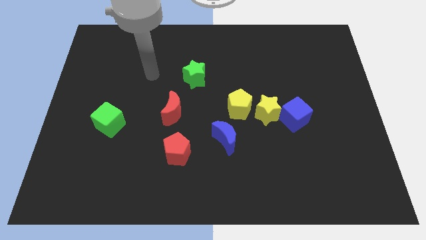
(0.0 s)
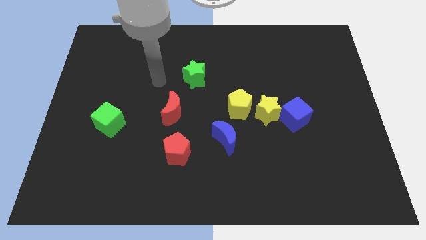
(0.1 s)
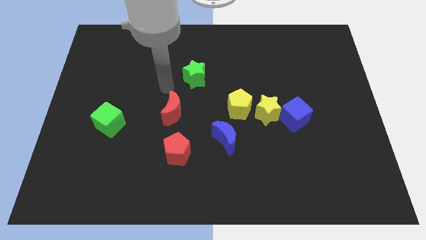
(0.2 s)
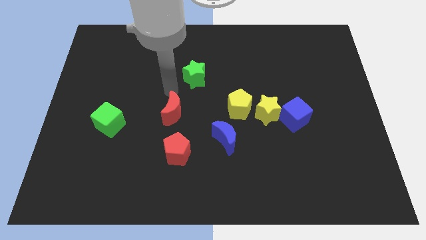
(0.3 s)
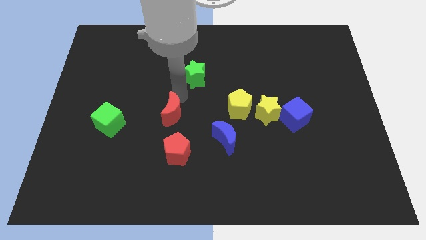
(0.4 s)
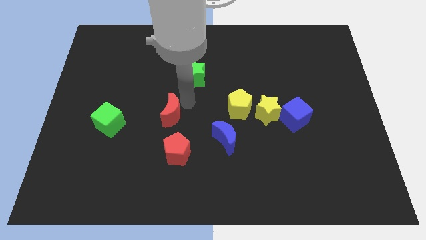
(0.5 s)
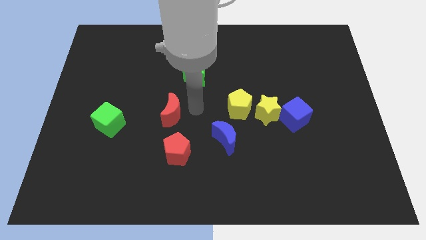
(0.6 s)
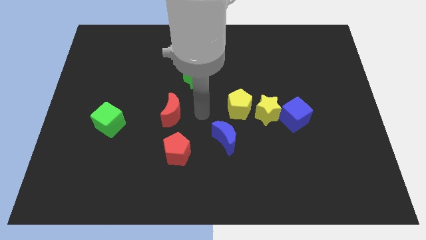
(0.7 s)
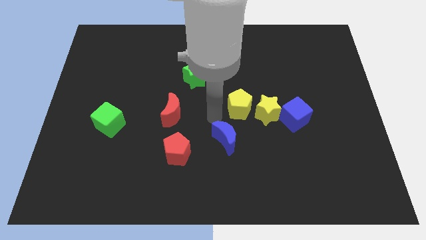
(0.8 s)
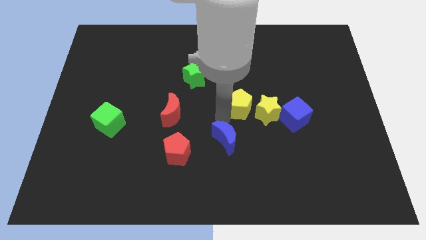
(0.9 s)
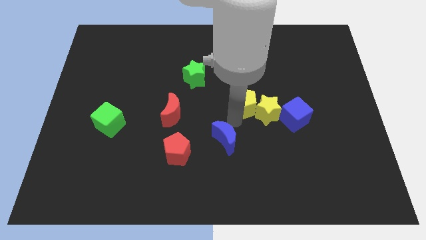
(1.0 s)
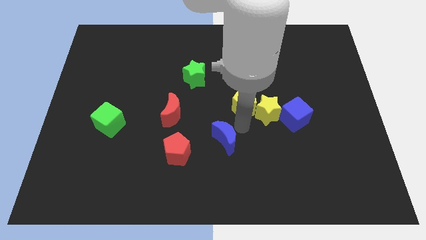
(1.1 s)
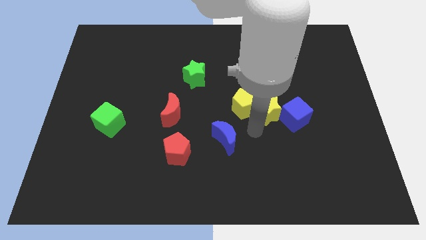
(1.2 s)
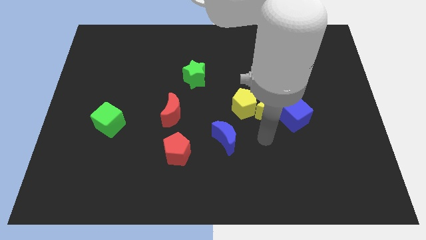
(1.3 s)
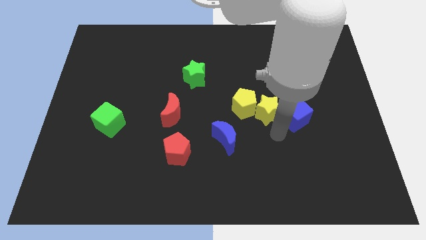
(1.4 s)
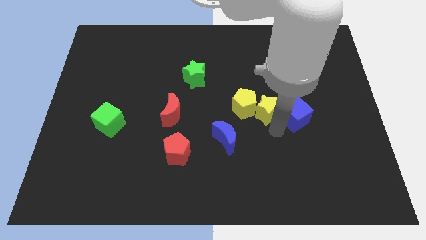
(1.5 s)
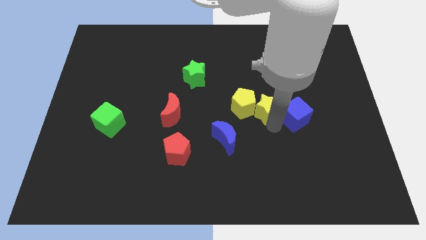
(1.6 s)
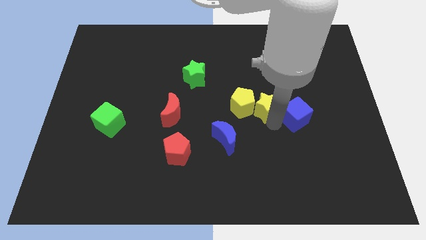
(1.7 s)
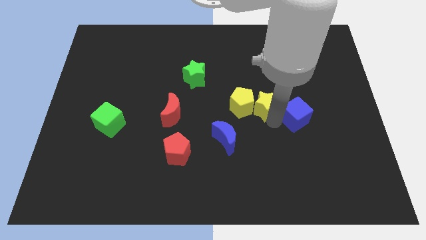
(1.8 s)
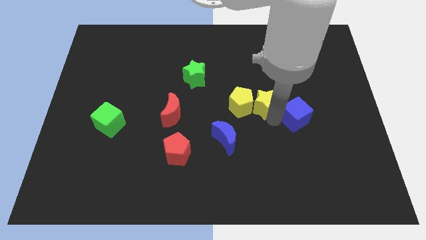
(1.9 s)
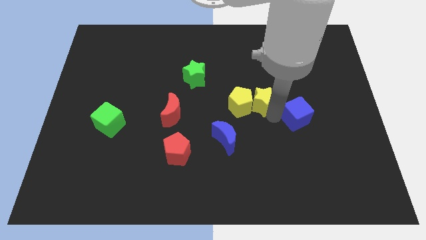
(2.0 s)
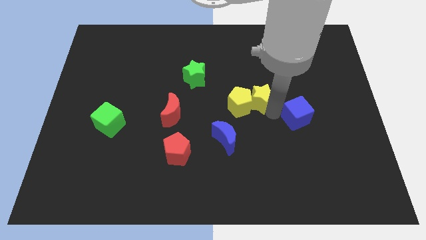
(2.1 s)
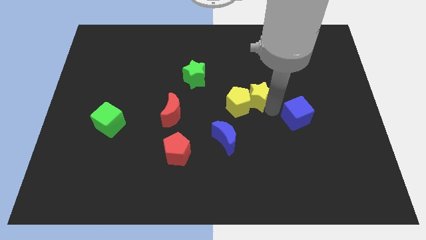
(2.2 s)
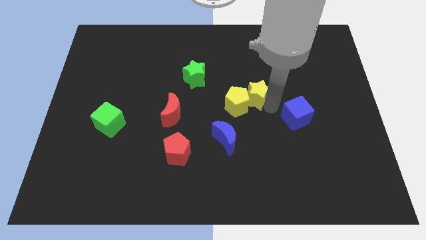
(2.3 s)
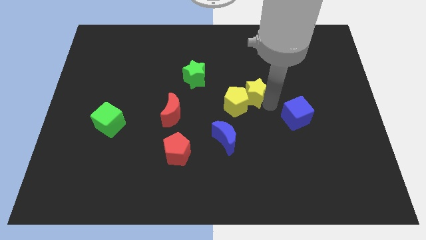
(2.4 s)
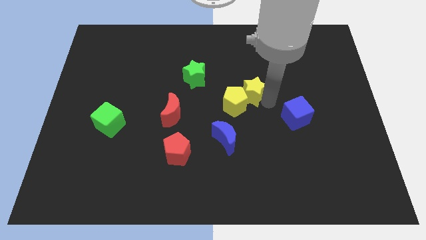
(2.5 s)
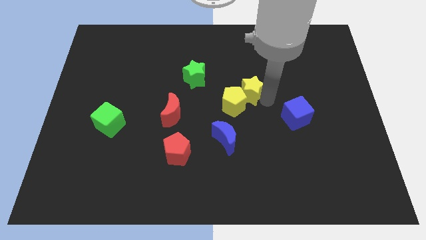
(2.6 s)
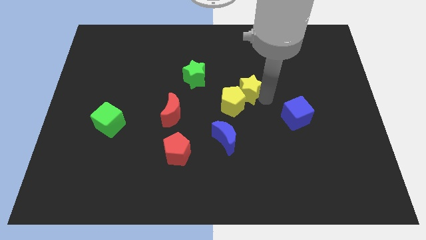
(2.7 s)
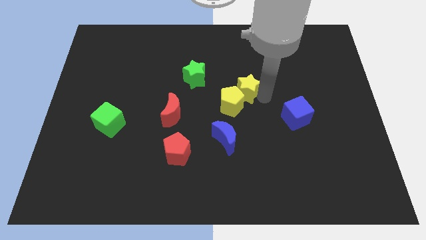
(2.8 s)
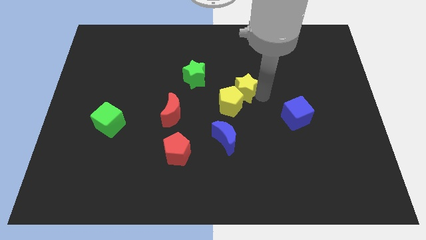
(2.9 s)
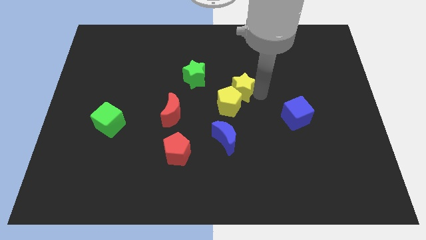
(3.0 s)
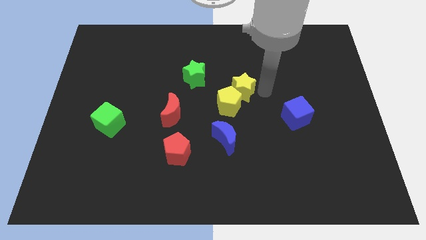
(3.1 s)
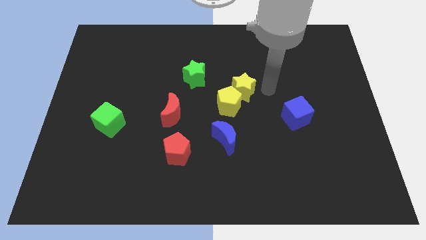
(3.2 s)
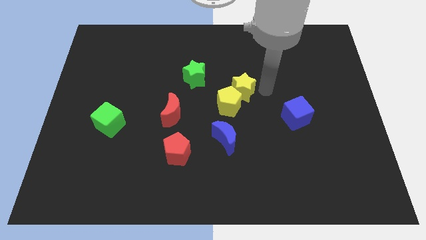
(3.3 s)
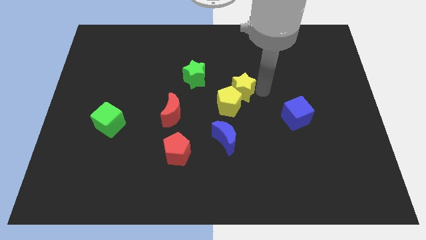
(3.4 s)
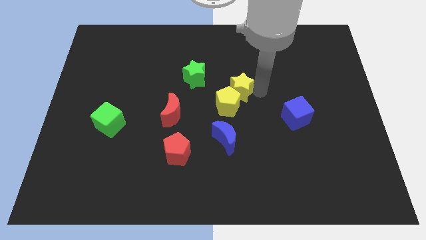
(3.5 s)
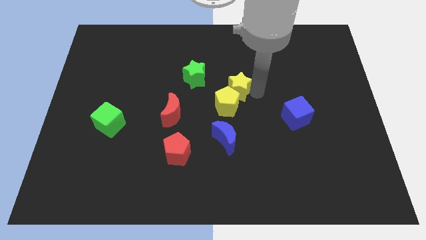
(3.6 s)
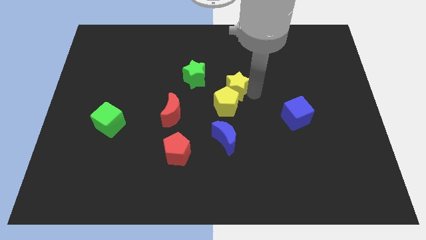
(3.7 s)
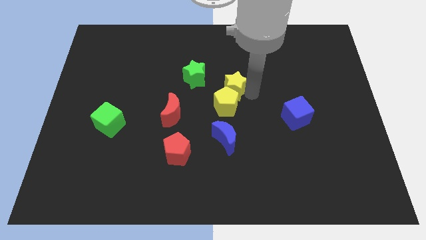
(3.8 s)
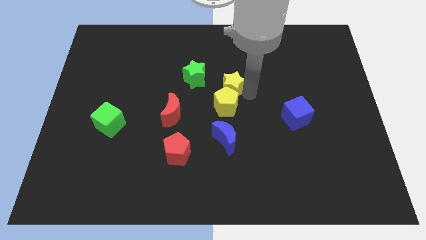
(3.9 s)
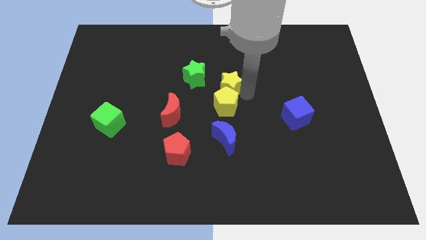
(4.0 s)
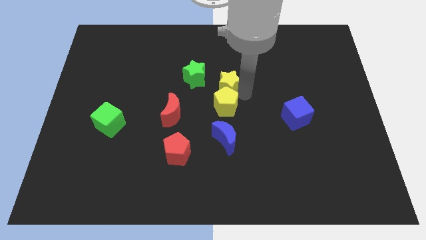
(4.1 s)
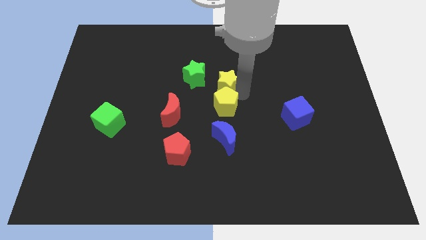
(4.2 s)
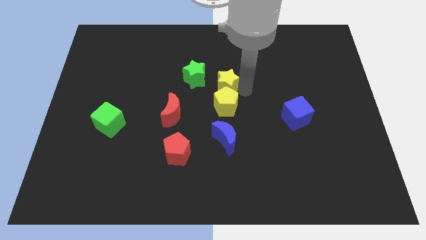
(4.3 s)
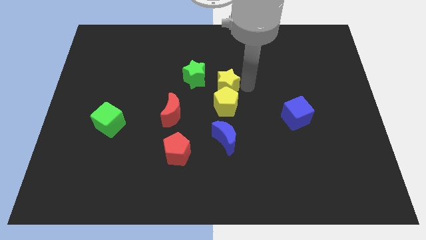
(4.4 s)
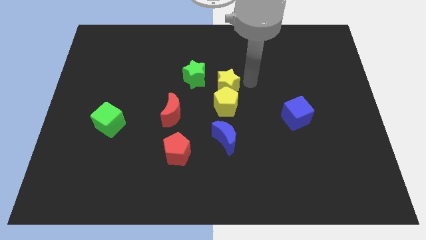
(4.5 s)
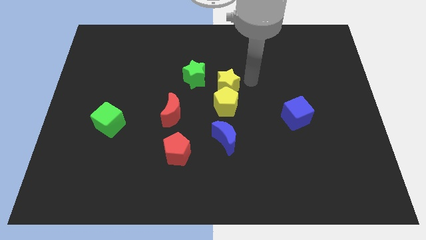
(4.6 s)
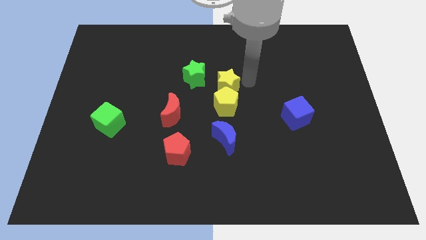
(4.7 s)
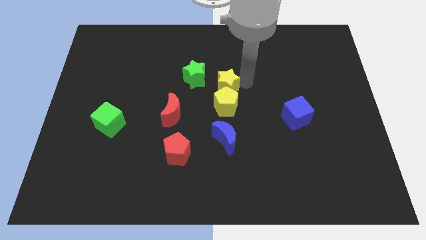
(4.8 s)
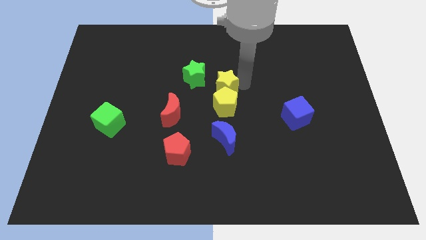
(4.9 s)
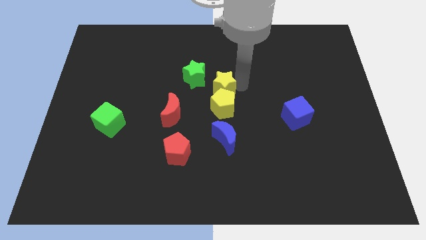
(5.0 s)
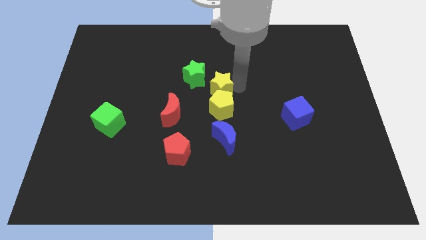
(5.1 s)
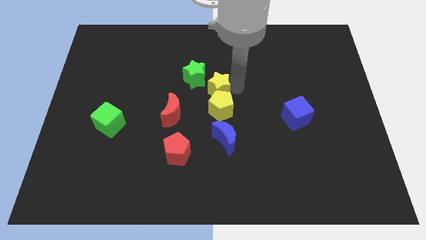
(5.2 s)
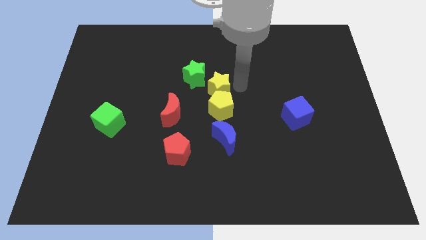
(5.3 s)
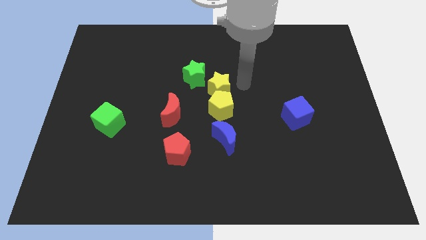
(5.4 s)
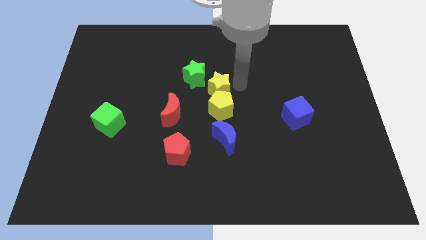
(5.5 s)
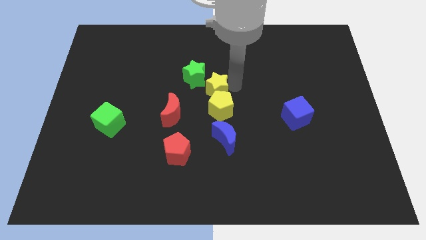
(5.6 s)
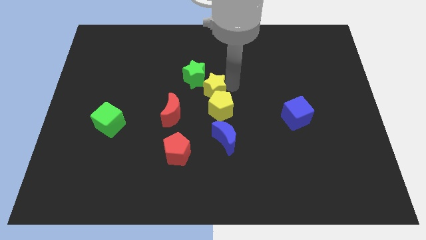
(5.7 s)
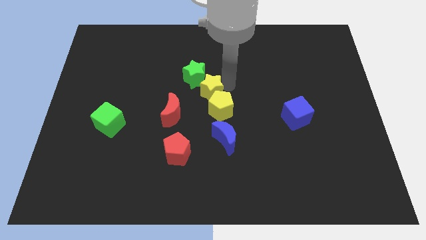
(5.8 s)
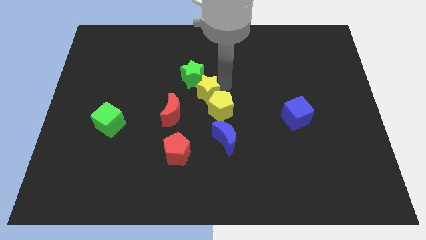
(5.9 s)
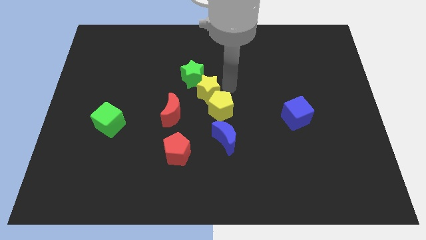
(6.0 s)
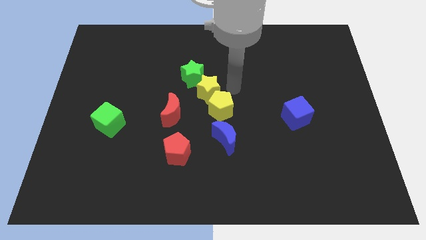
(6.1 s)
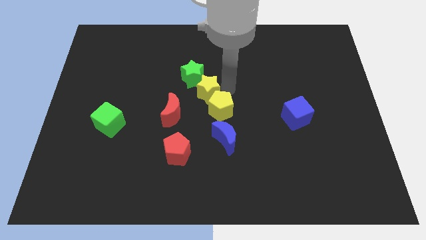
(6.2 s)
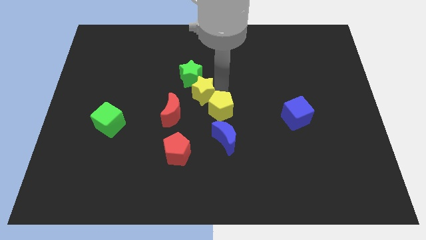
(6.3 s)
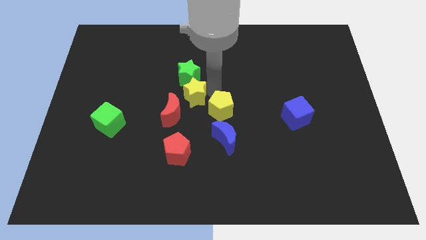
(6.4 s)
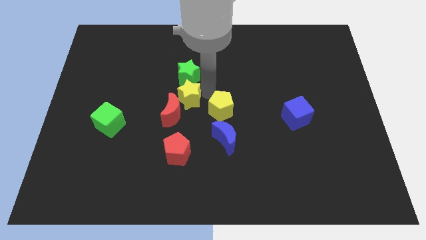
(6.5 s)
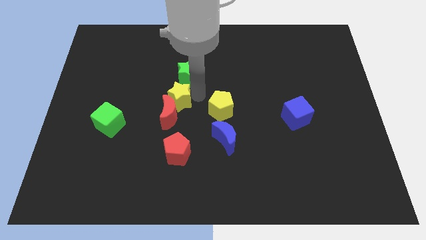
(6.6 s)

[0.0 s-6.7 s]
push the yellow star to the left

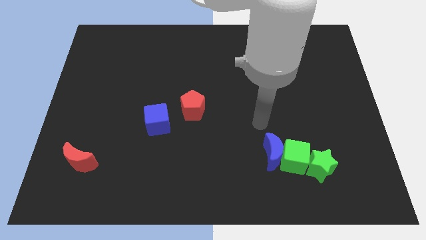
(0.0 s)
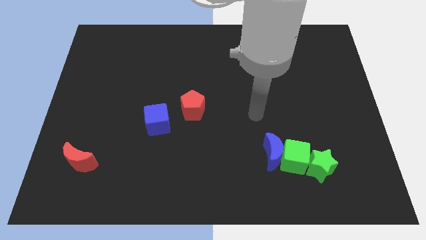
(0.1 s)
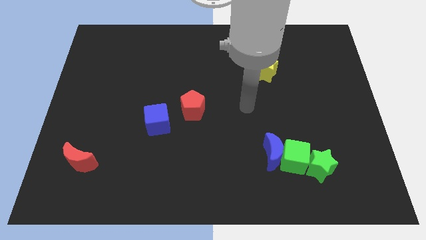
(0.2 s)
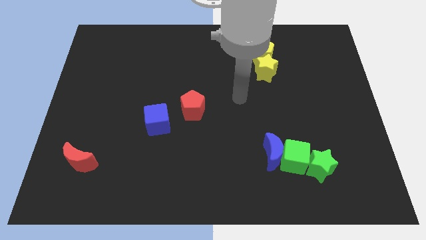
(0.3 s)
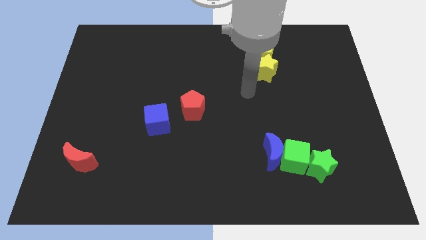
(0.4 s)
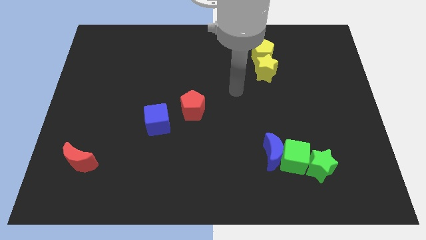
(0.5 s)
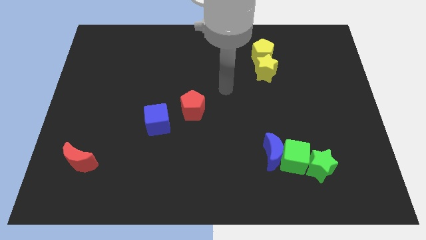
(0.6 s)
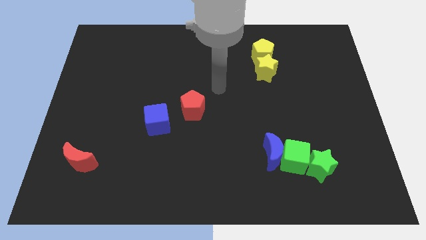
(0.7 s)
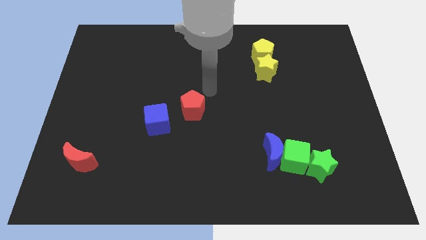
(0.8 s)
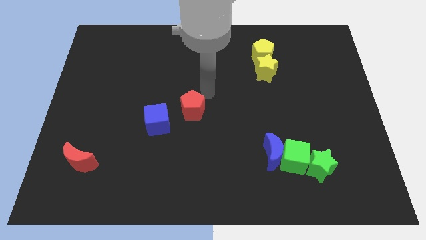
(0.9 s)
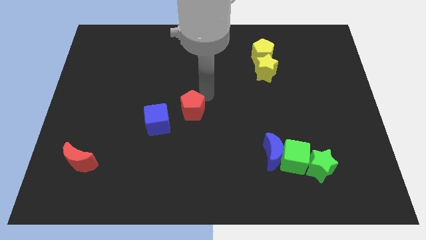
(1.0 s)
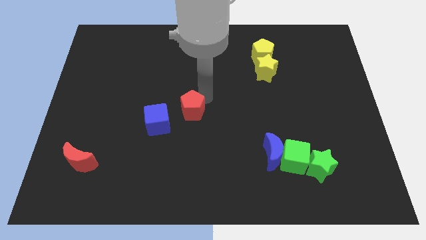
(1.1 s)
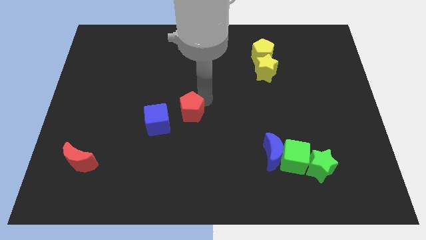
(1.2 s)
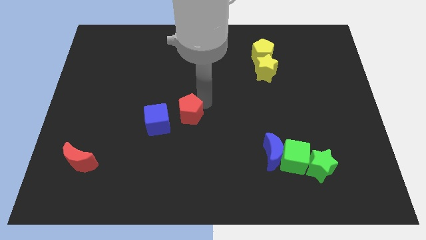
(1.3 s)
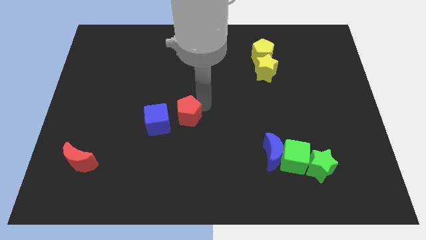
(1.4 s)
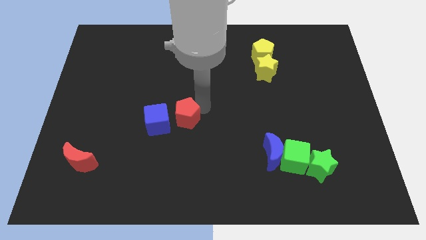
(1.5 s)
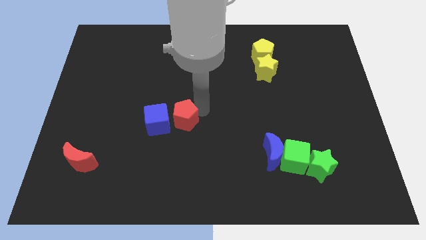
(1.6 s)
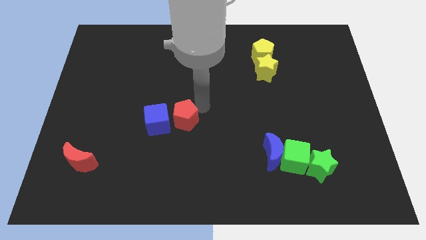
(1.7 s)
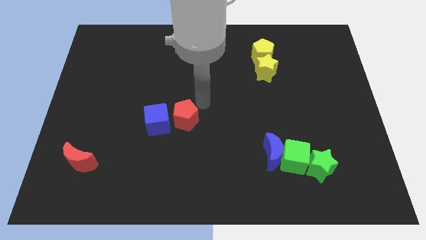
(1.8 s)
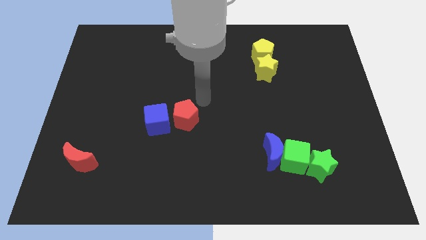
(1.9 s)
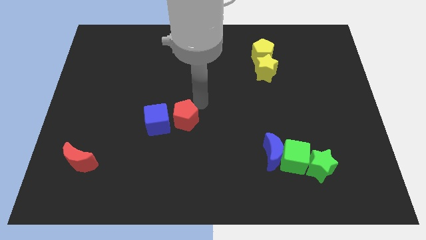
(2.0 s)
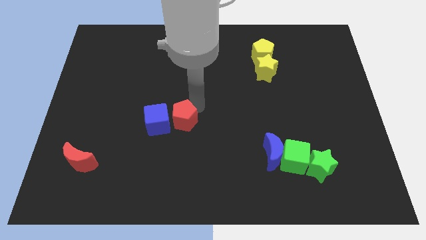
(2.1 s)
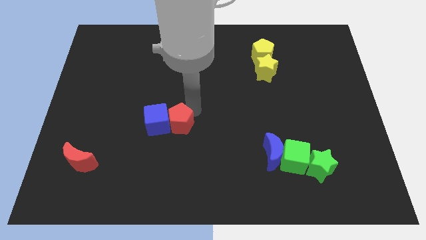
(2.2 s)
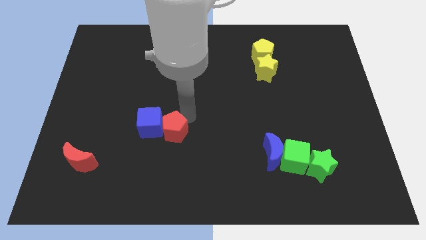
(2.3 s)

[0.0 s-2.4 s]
slide the red pentagon a bit down and to the left
